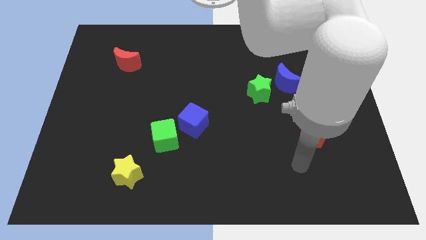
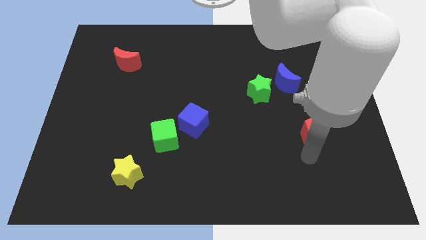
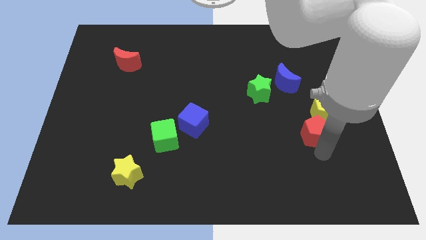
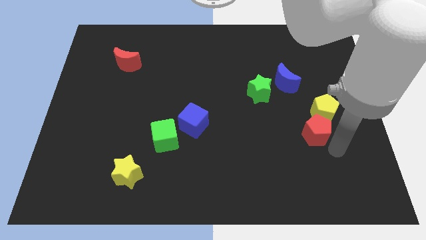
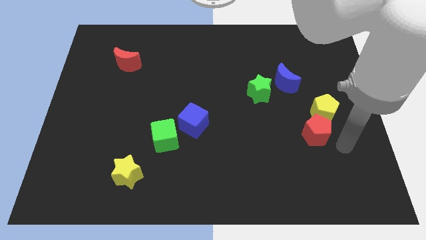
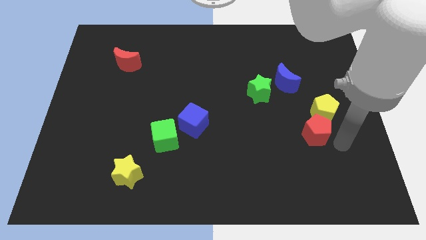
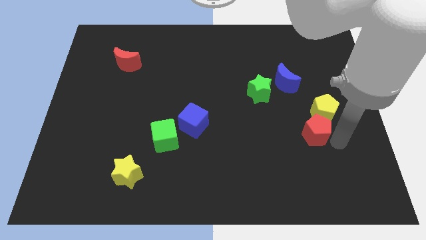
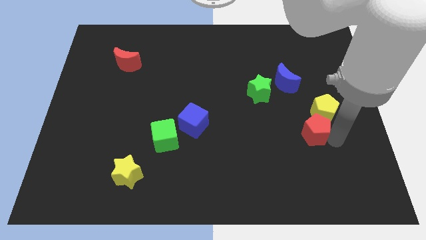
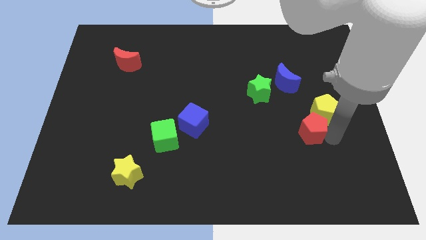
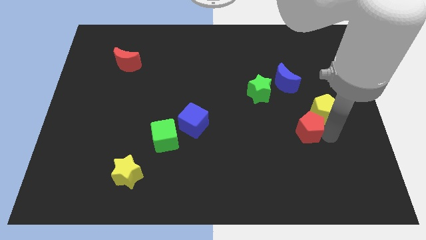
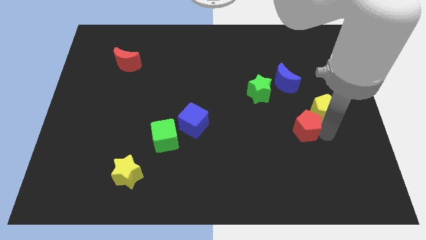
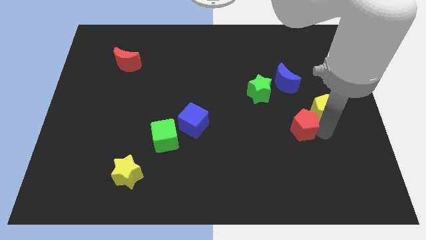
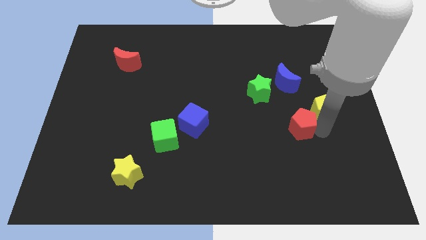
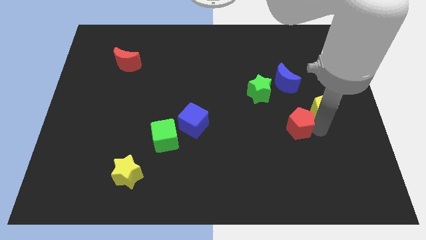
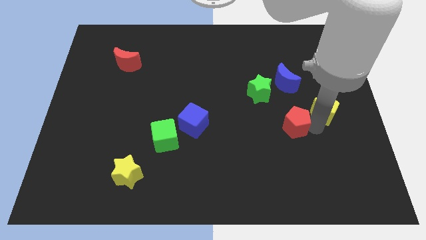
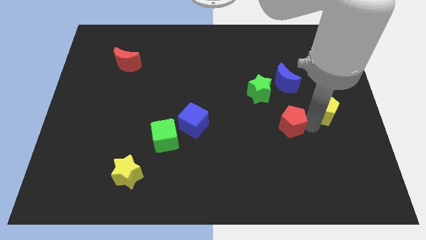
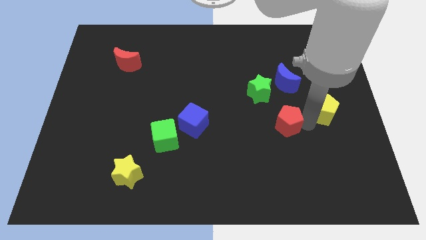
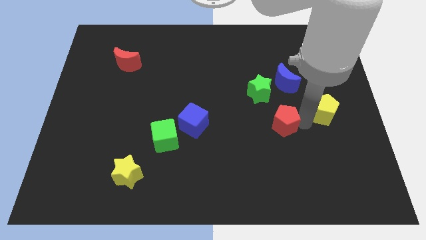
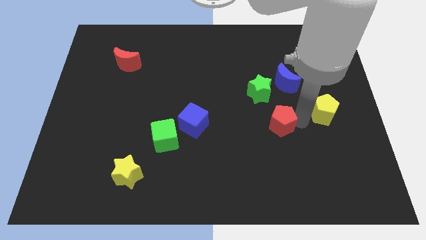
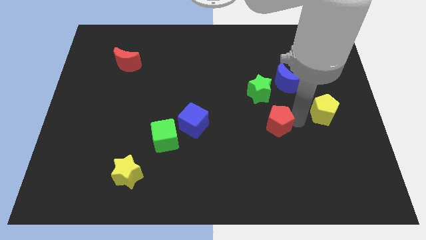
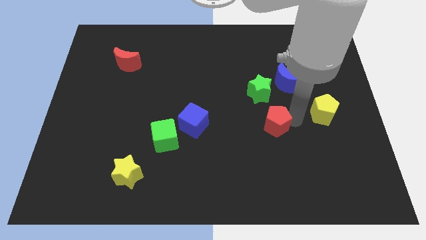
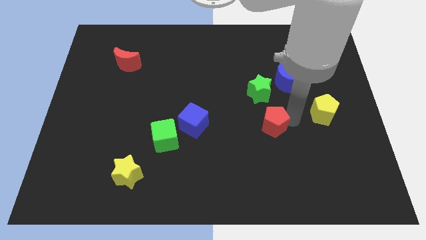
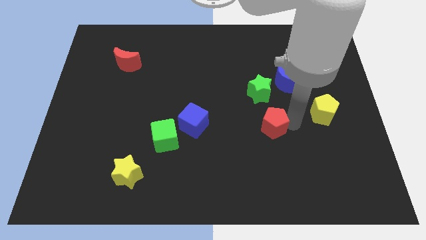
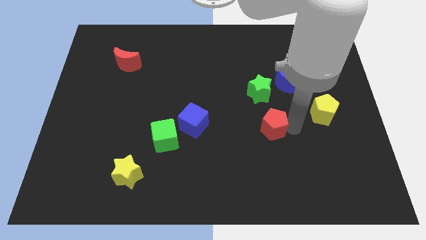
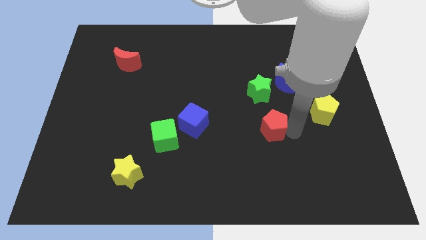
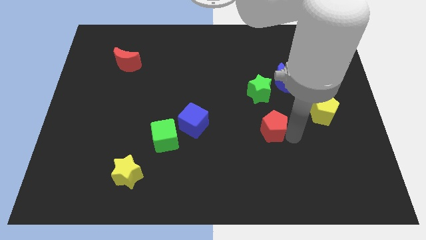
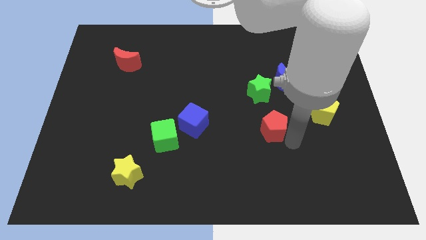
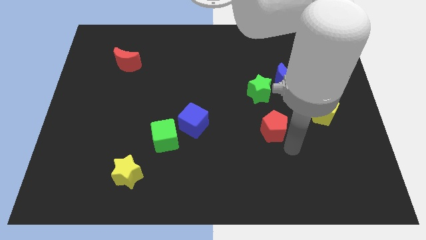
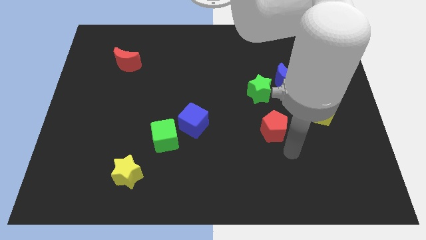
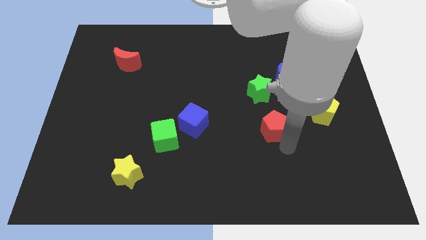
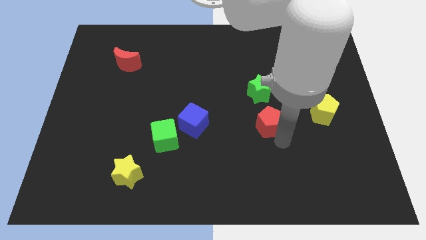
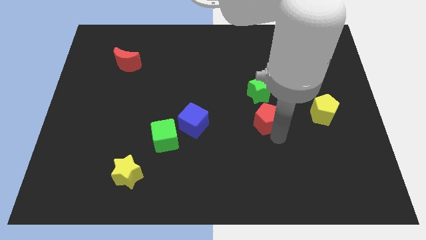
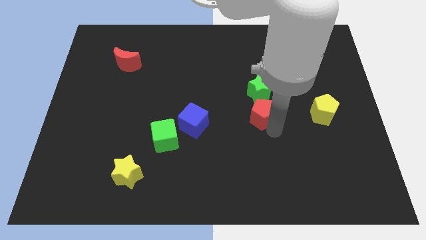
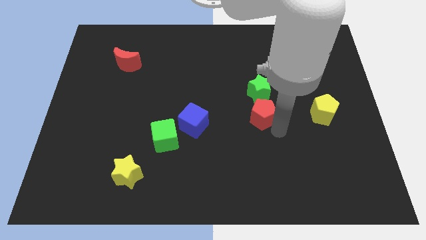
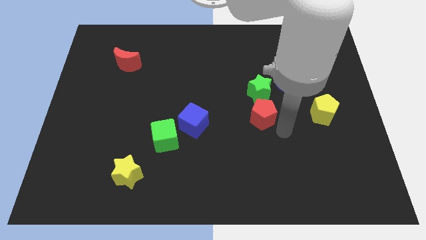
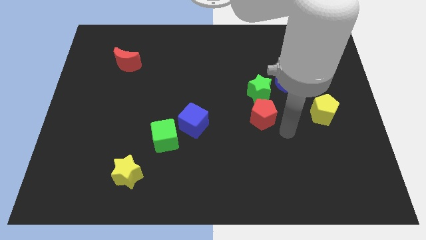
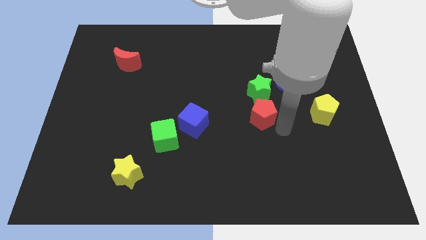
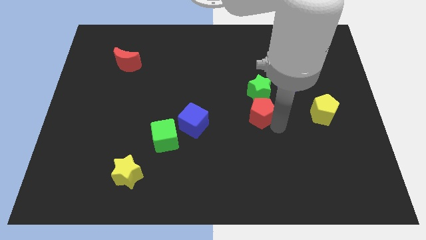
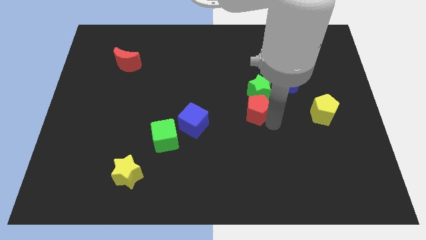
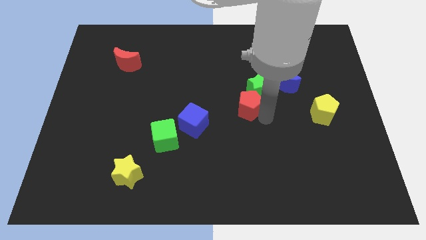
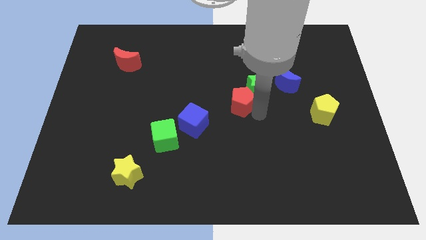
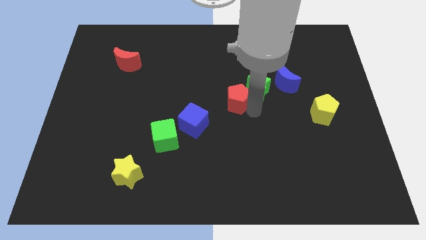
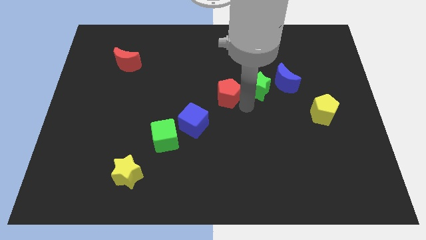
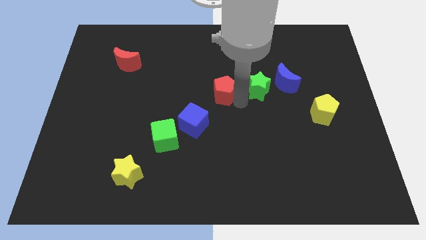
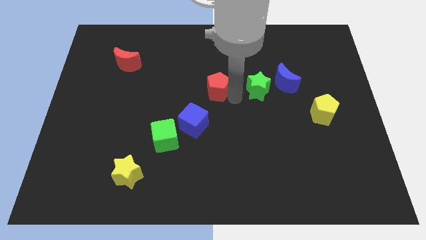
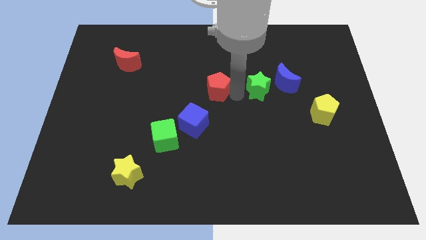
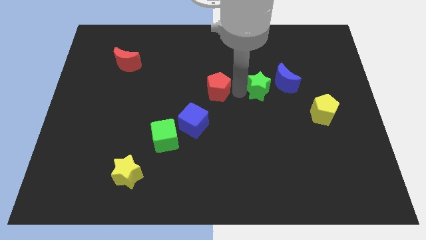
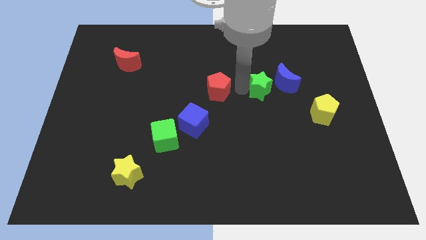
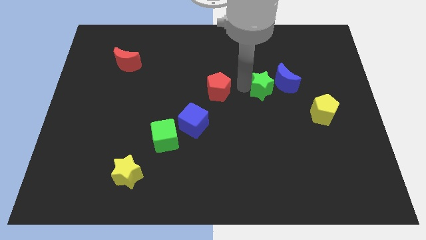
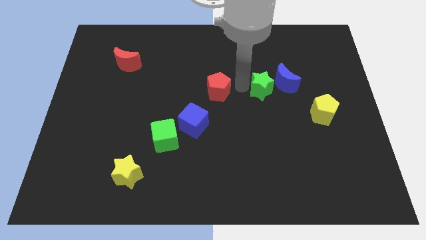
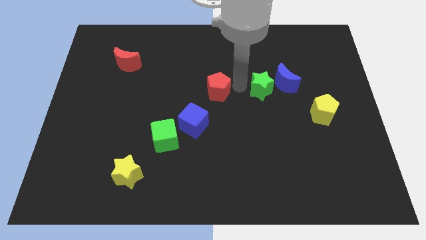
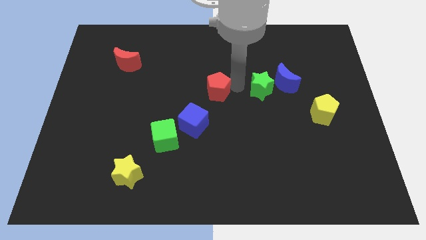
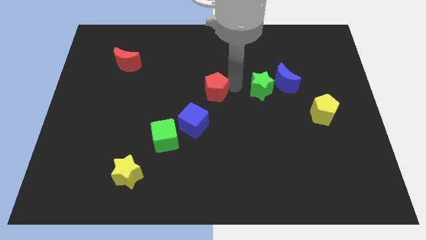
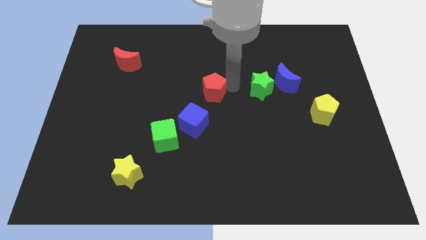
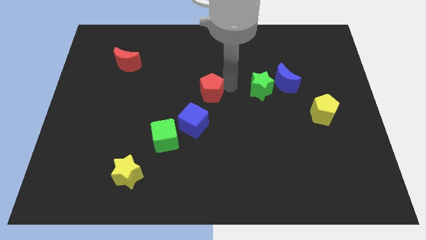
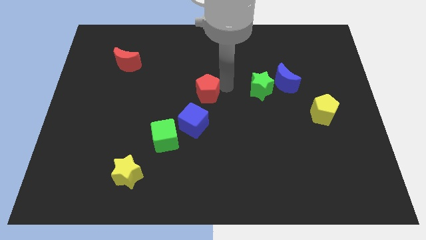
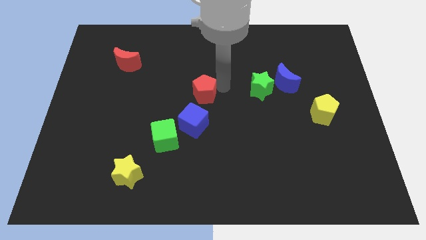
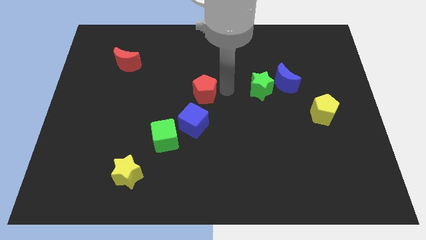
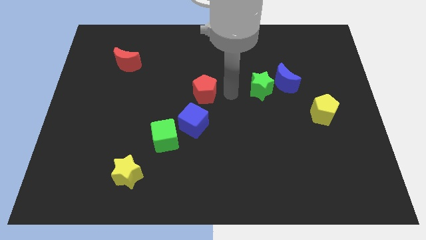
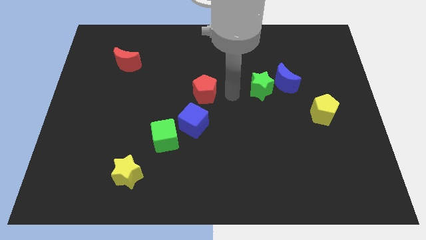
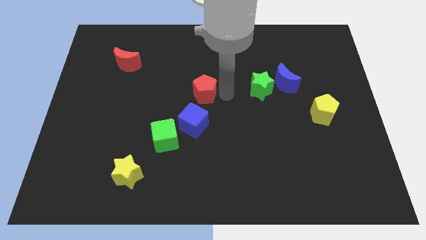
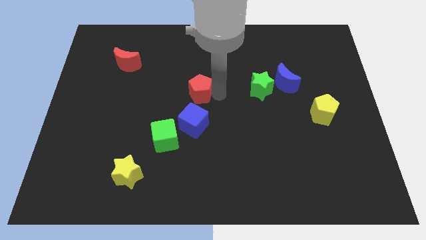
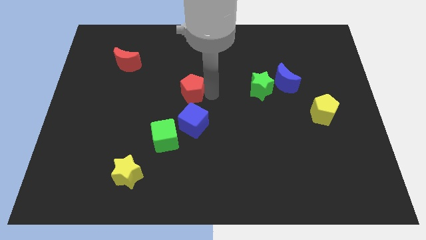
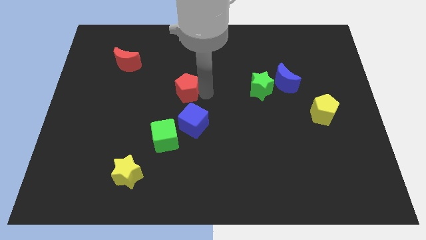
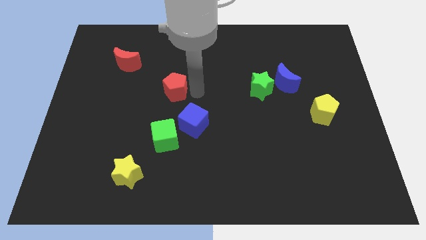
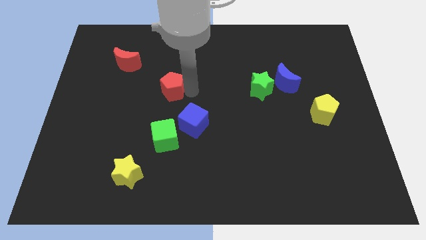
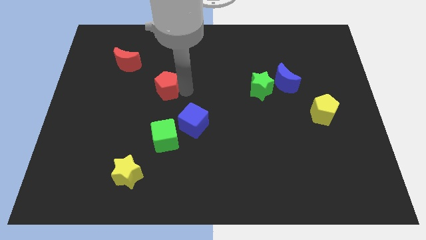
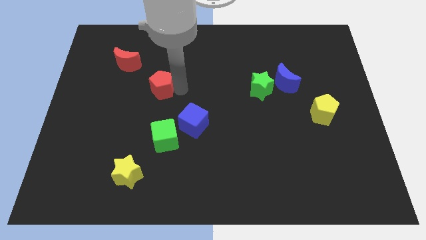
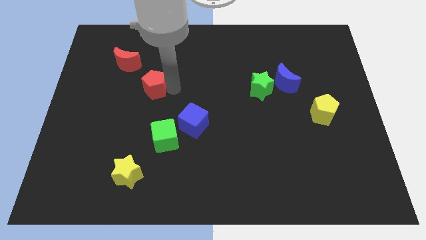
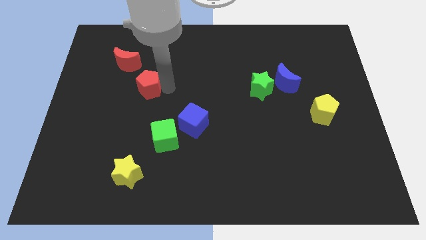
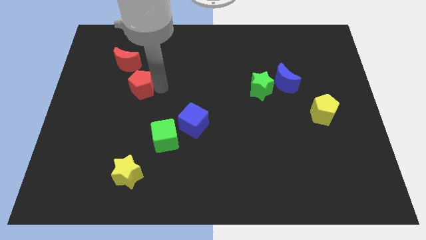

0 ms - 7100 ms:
slide the red pentagon to the bottom of the red moon

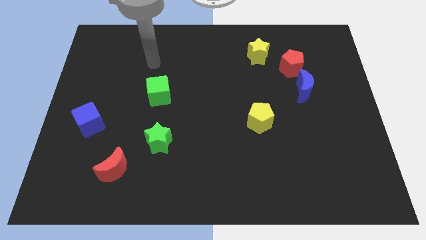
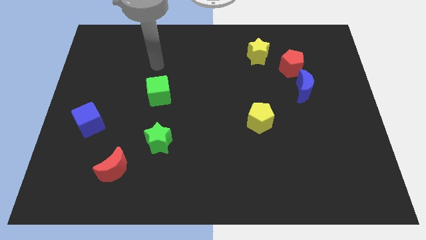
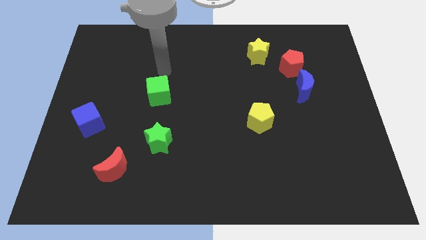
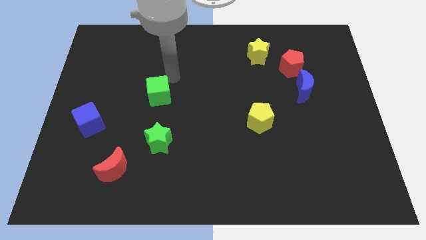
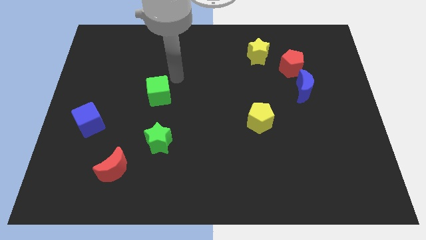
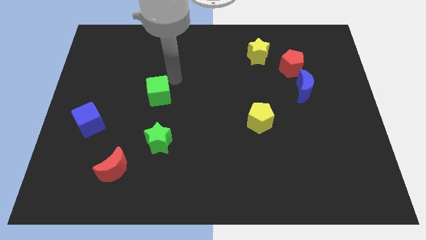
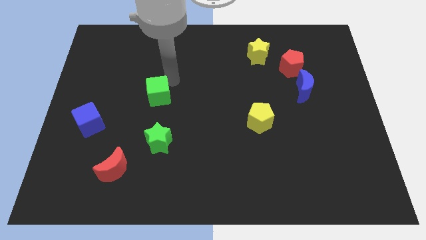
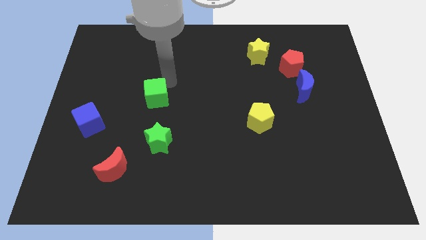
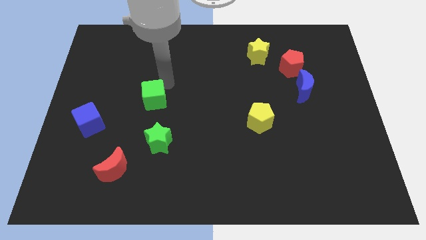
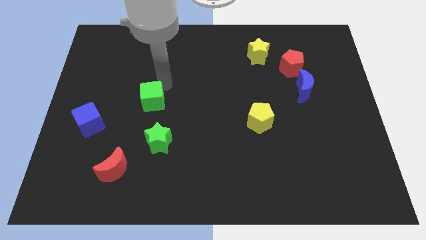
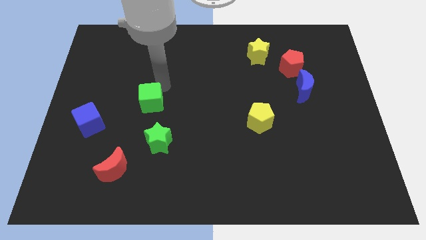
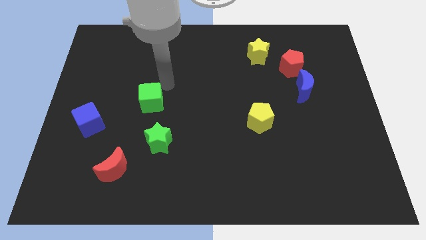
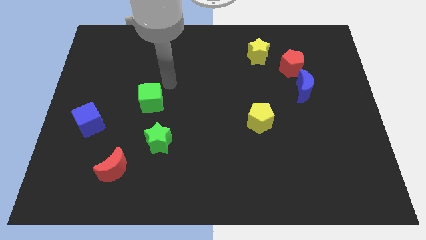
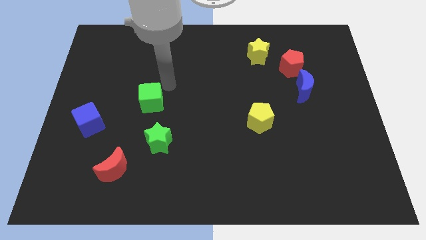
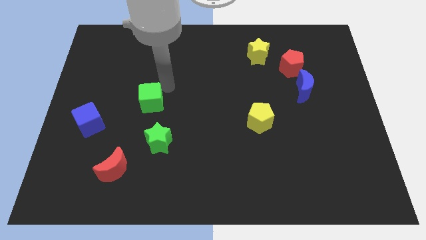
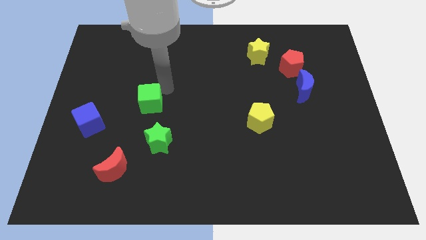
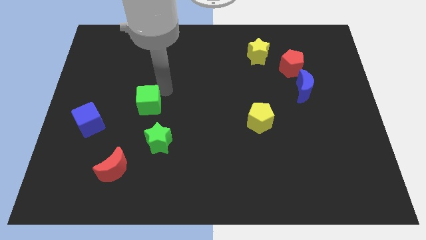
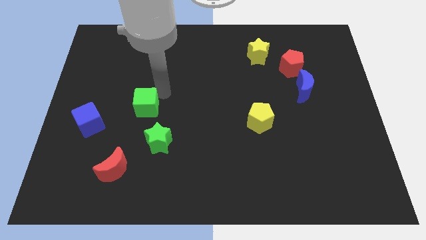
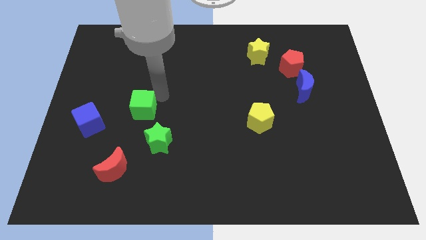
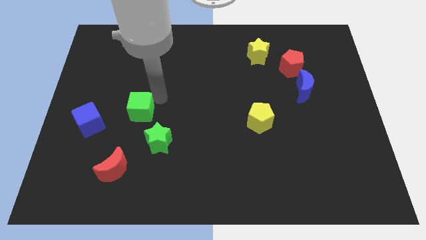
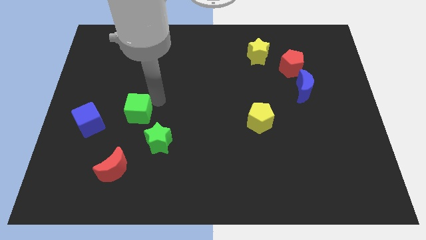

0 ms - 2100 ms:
put the green cube above the red moon
